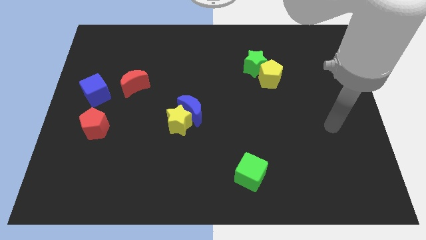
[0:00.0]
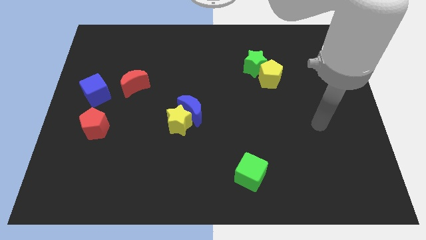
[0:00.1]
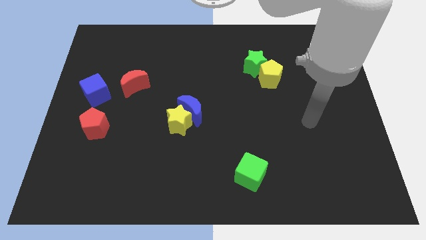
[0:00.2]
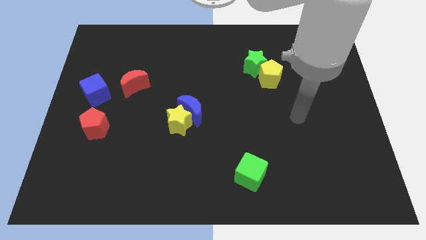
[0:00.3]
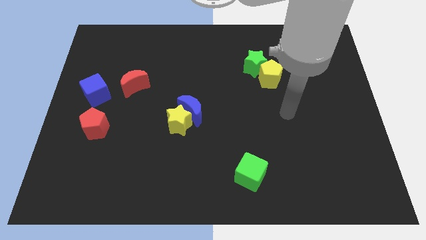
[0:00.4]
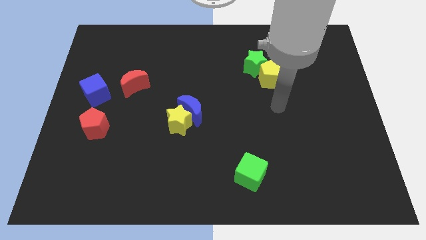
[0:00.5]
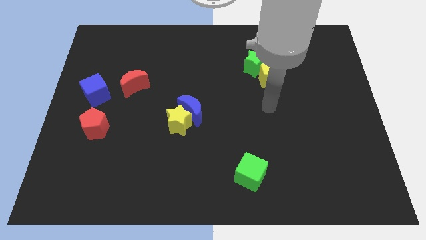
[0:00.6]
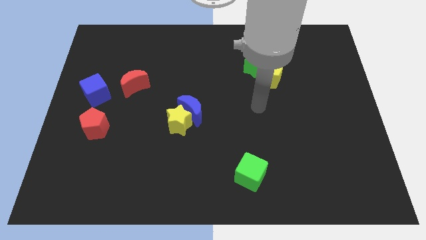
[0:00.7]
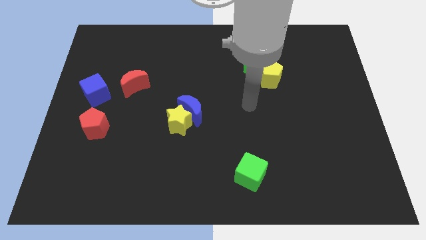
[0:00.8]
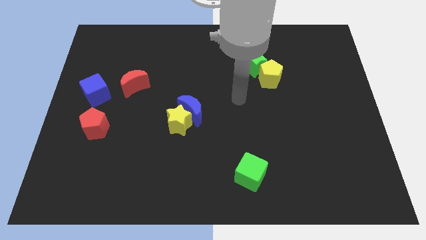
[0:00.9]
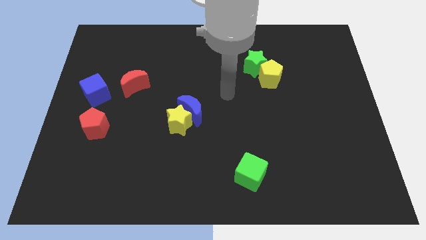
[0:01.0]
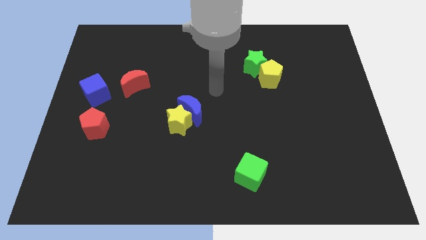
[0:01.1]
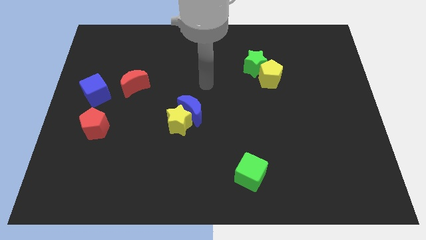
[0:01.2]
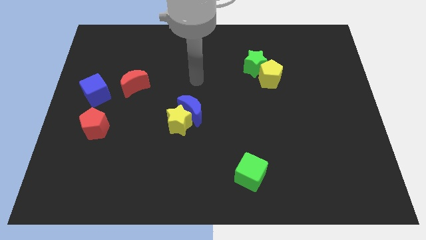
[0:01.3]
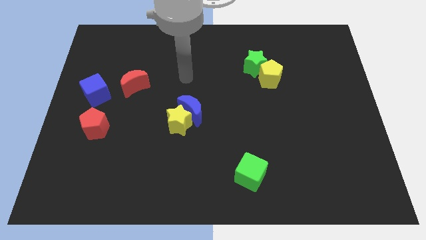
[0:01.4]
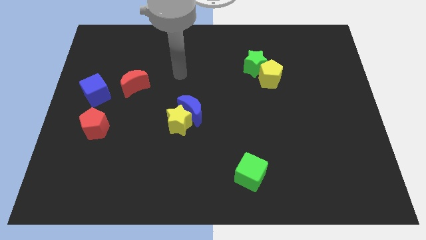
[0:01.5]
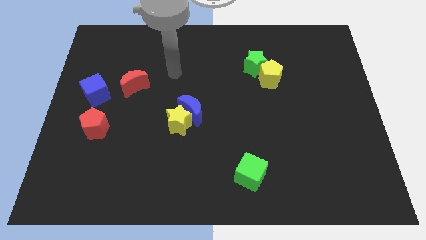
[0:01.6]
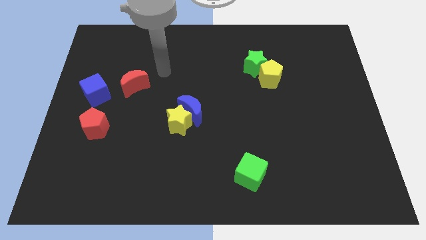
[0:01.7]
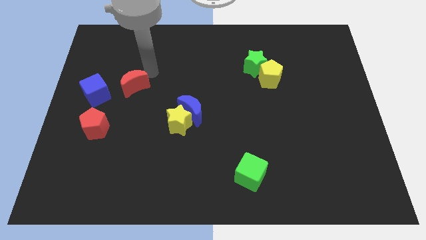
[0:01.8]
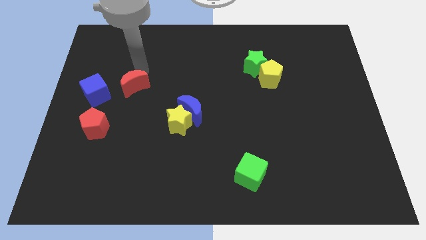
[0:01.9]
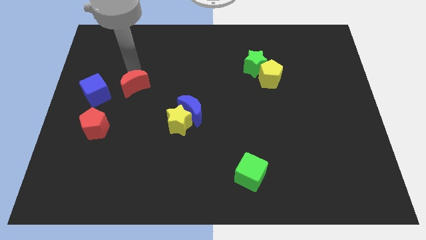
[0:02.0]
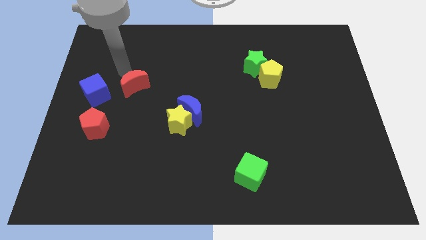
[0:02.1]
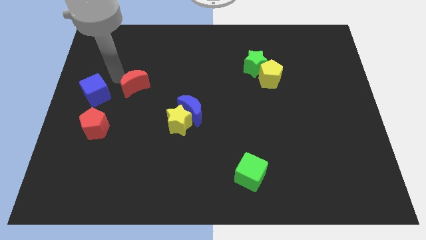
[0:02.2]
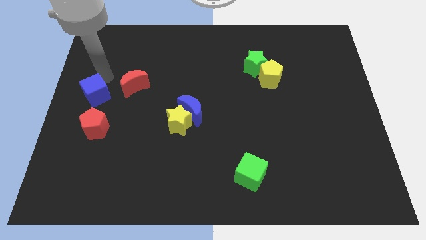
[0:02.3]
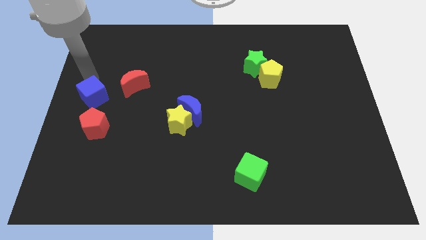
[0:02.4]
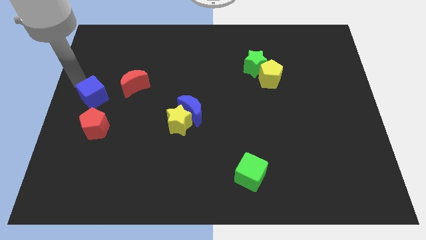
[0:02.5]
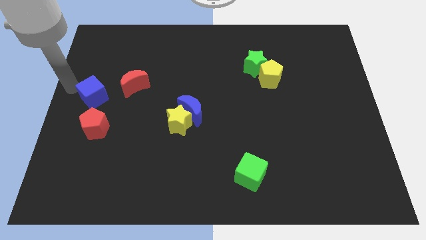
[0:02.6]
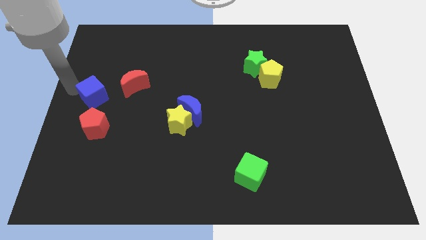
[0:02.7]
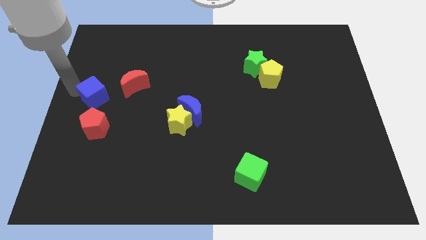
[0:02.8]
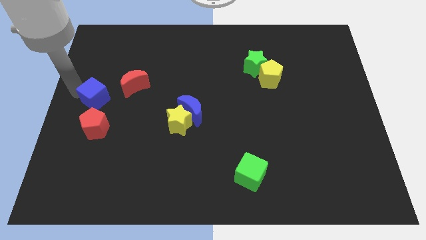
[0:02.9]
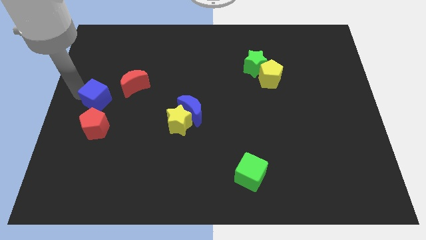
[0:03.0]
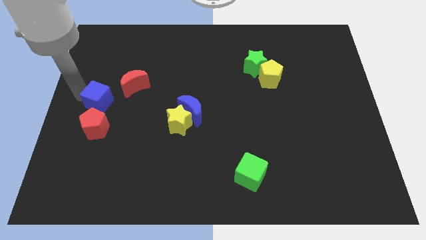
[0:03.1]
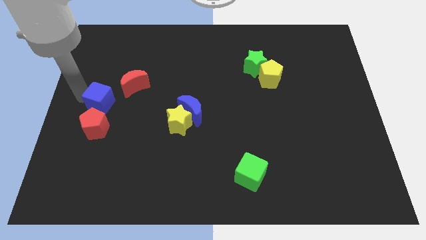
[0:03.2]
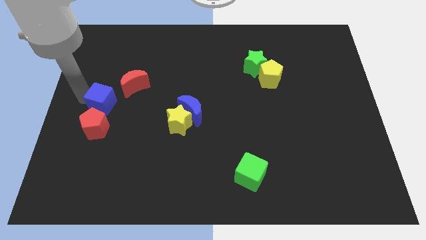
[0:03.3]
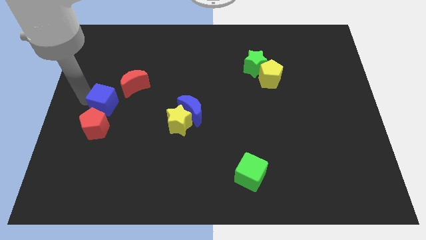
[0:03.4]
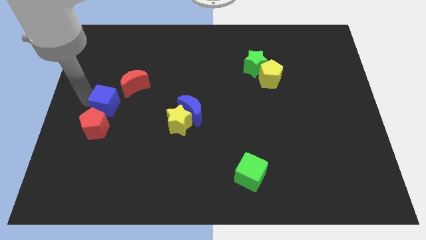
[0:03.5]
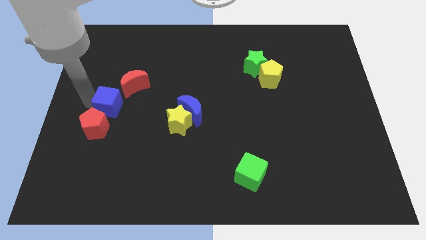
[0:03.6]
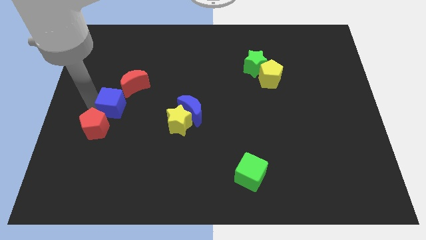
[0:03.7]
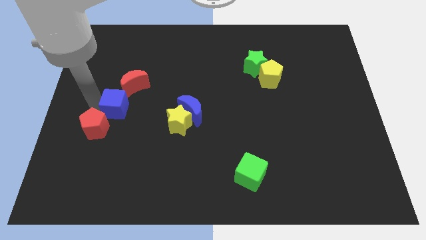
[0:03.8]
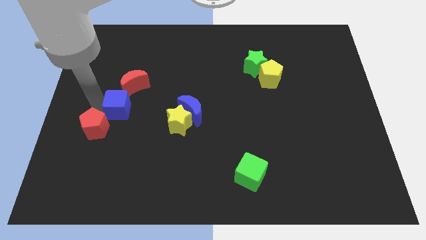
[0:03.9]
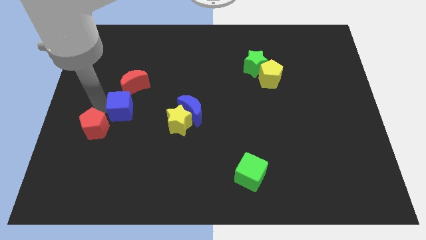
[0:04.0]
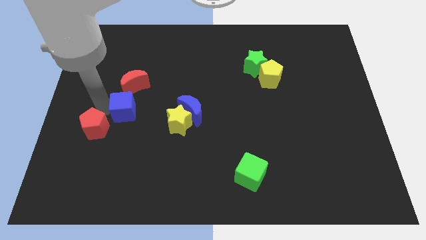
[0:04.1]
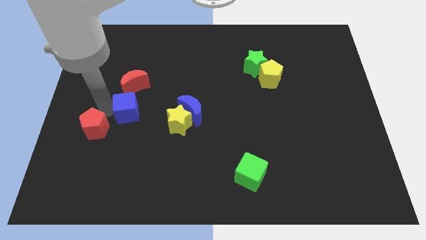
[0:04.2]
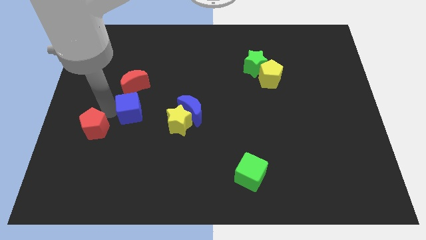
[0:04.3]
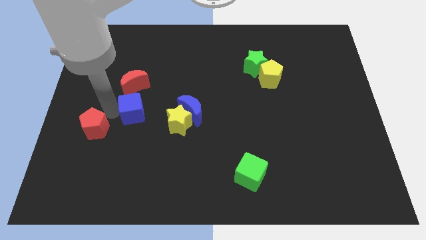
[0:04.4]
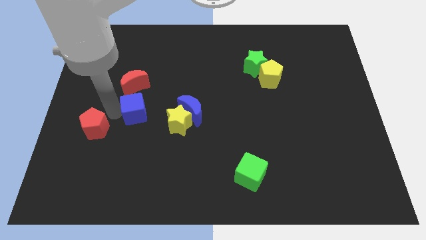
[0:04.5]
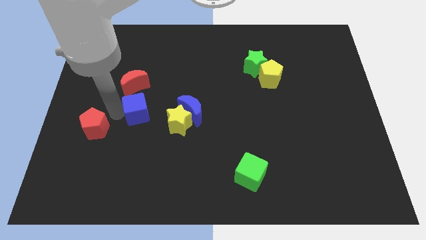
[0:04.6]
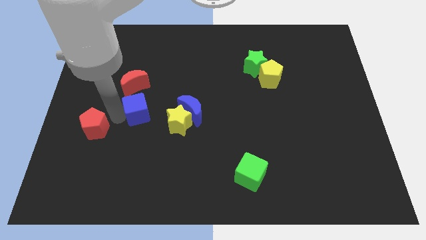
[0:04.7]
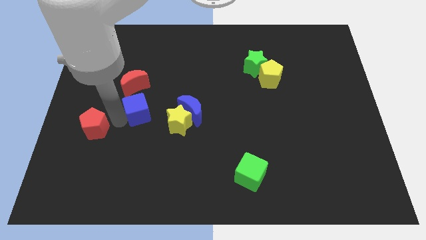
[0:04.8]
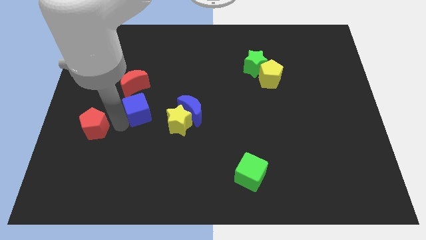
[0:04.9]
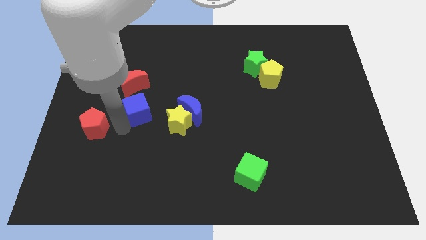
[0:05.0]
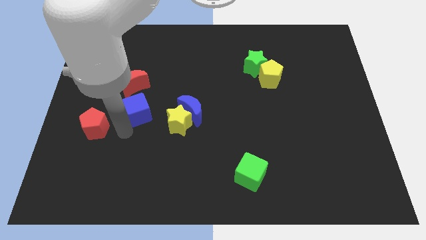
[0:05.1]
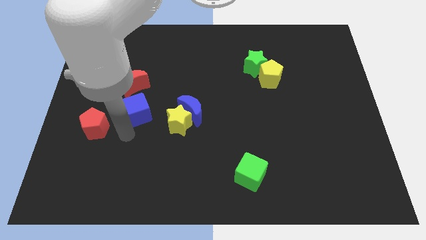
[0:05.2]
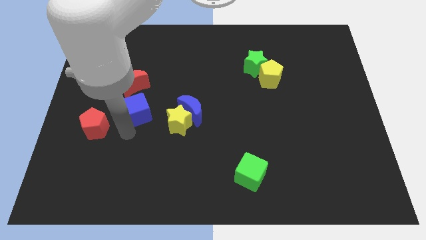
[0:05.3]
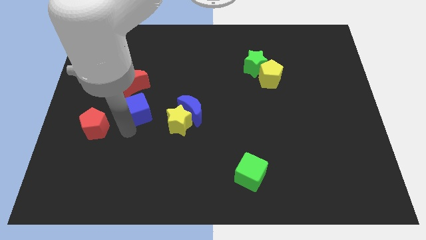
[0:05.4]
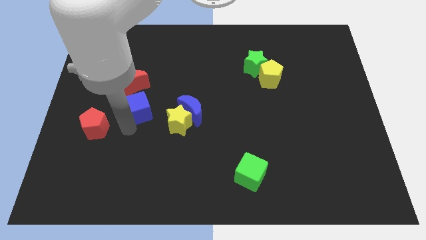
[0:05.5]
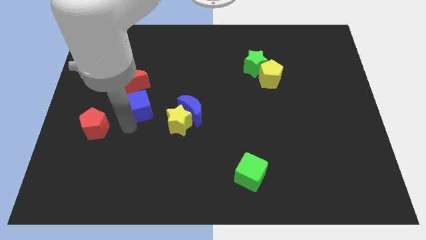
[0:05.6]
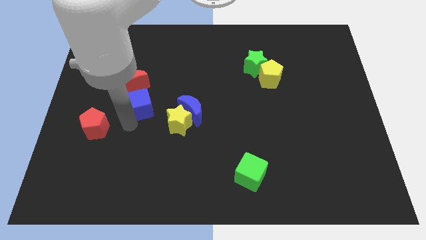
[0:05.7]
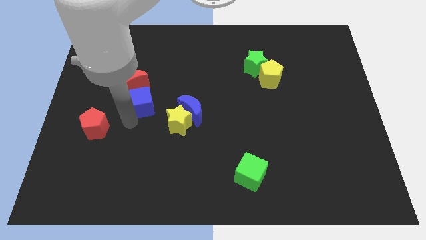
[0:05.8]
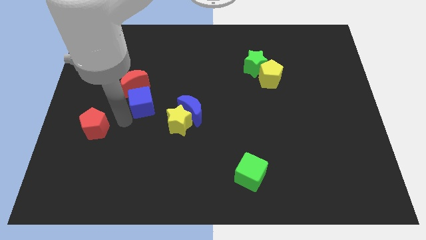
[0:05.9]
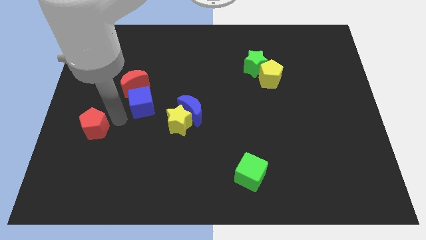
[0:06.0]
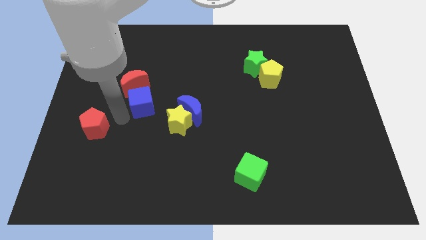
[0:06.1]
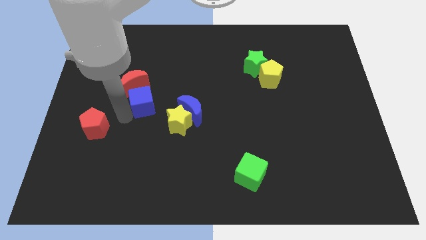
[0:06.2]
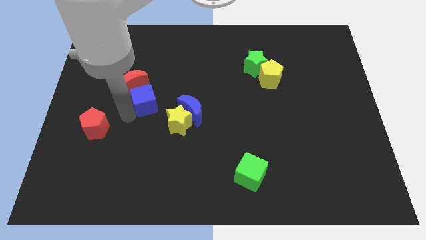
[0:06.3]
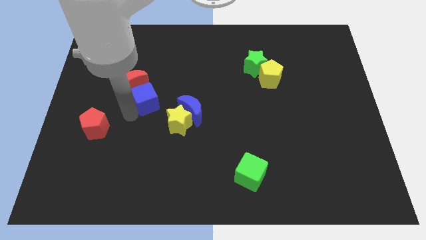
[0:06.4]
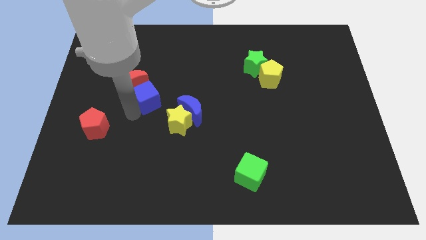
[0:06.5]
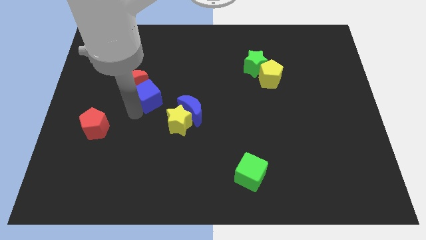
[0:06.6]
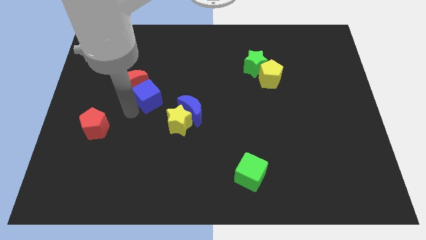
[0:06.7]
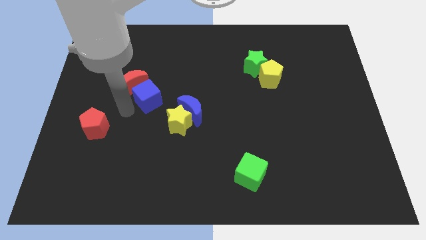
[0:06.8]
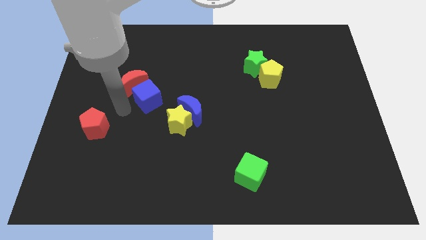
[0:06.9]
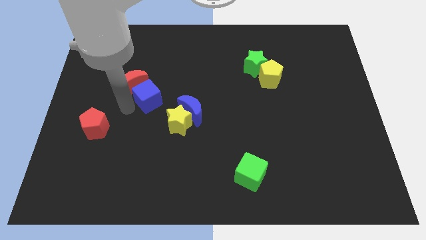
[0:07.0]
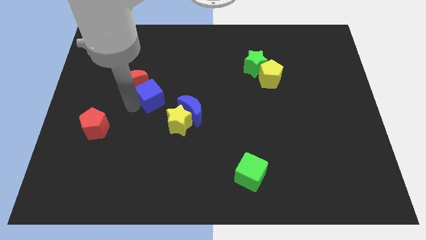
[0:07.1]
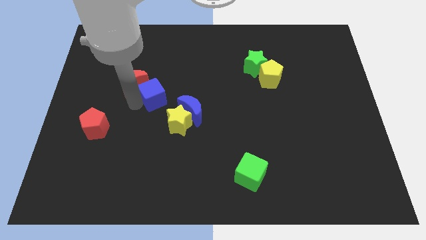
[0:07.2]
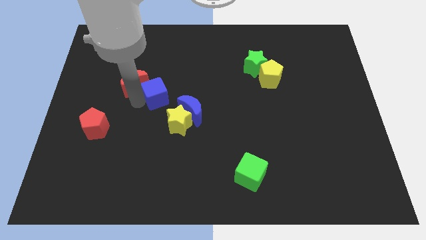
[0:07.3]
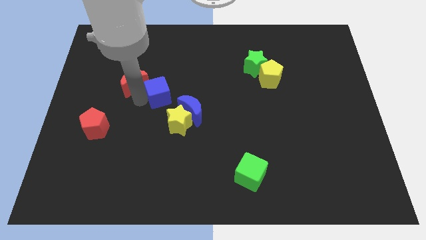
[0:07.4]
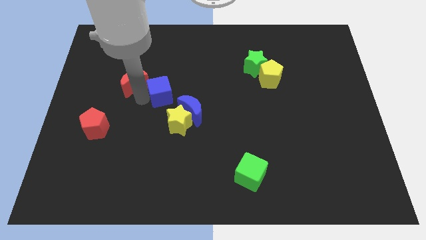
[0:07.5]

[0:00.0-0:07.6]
push the blue cube to the center
